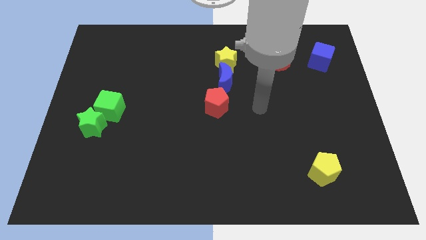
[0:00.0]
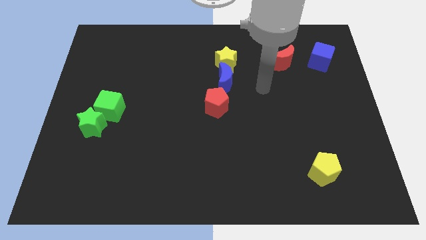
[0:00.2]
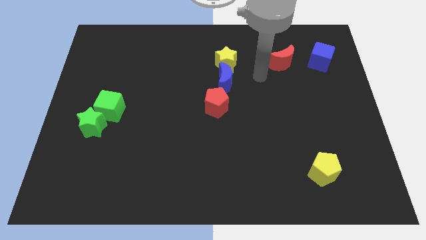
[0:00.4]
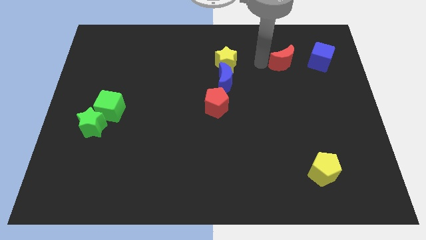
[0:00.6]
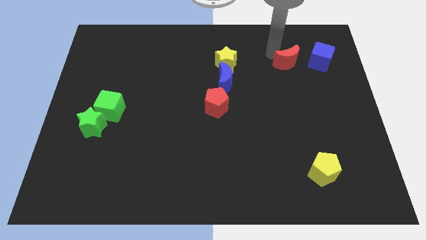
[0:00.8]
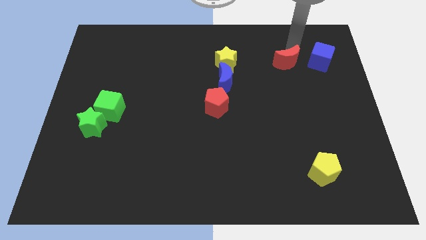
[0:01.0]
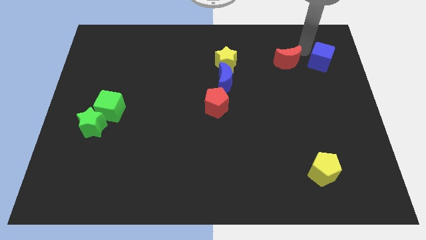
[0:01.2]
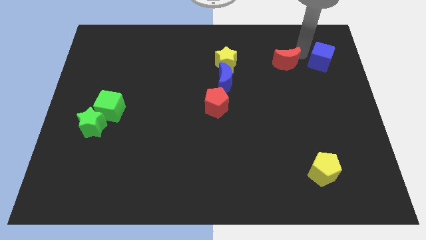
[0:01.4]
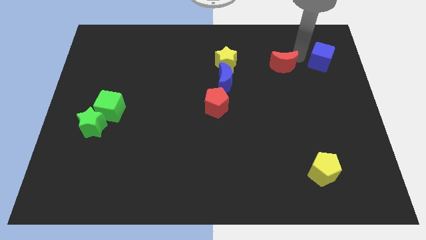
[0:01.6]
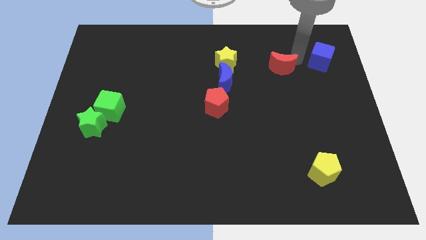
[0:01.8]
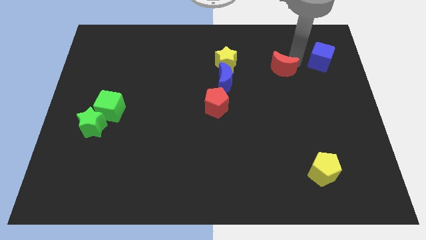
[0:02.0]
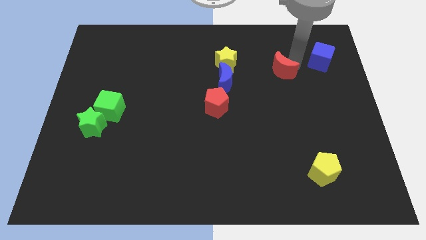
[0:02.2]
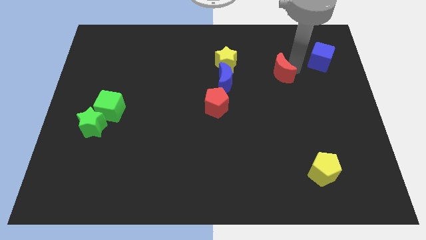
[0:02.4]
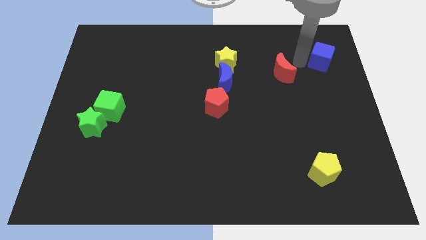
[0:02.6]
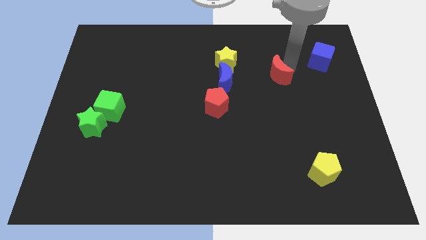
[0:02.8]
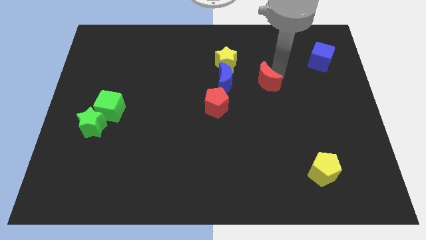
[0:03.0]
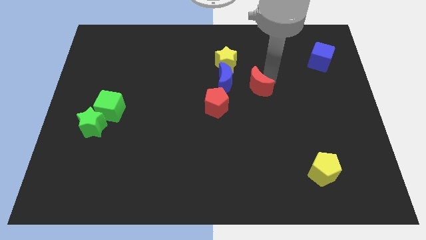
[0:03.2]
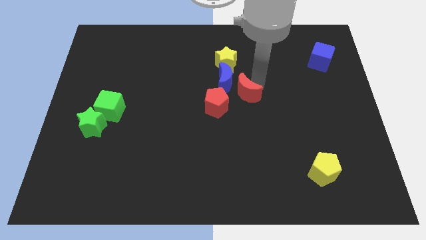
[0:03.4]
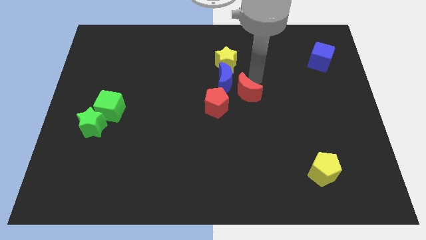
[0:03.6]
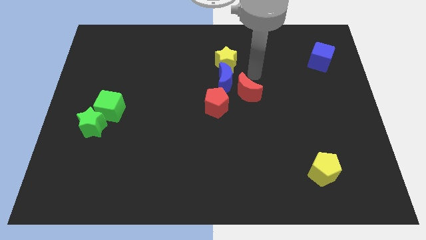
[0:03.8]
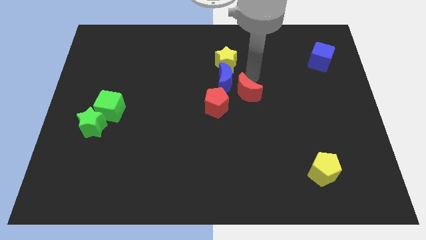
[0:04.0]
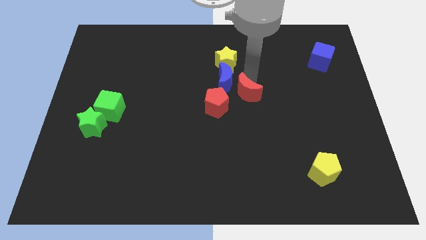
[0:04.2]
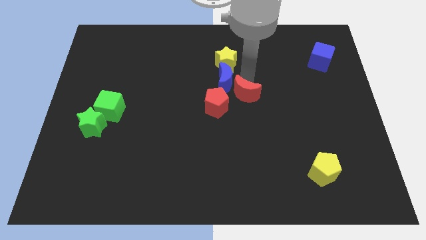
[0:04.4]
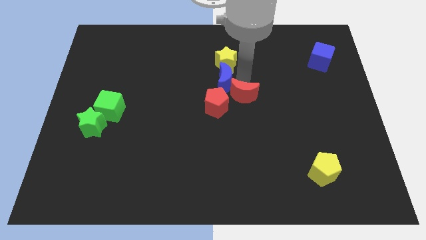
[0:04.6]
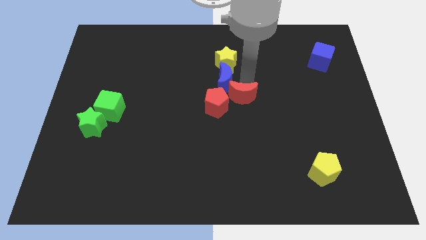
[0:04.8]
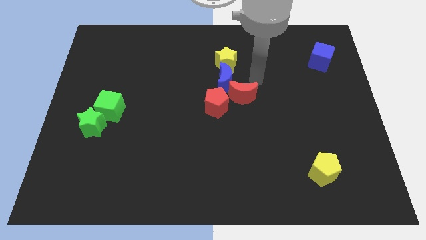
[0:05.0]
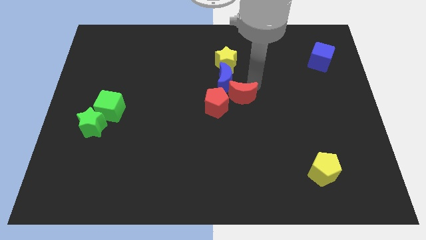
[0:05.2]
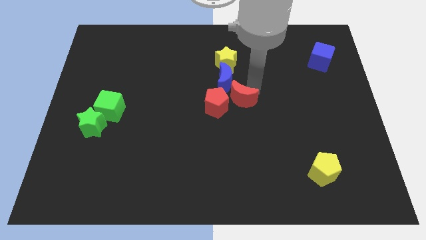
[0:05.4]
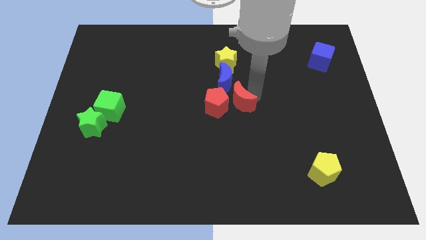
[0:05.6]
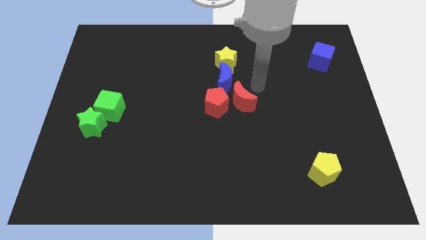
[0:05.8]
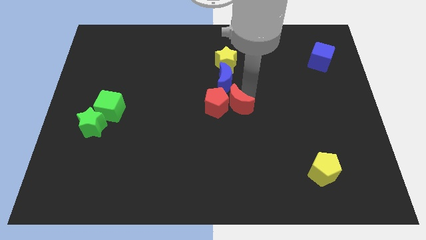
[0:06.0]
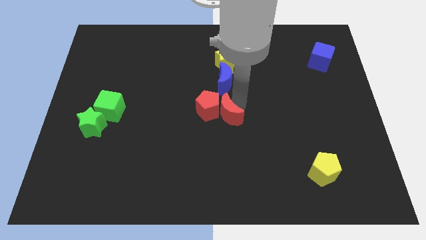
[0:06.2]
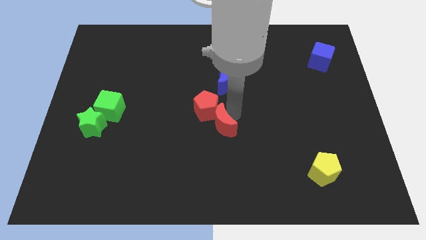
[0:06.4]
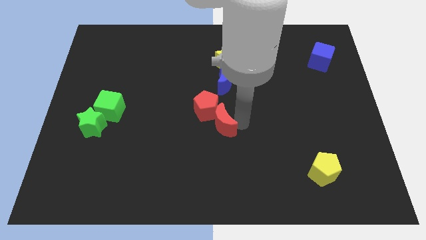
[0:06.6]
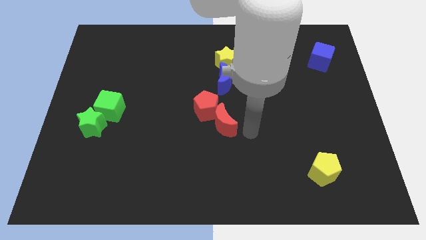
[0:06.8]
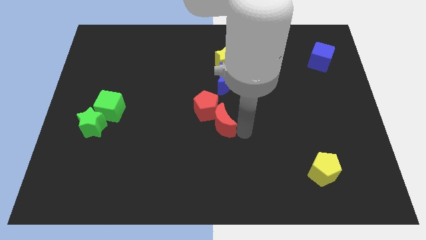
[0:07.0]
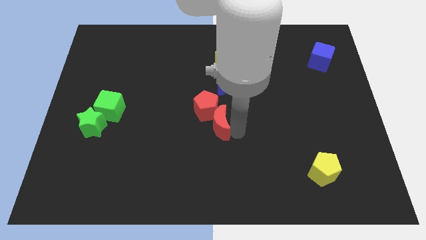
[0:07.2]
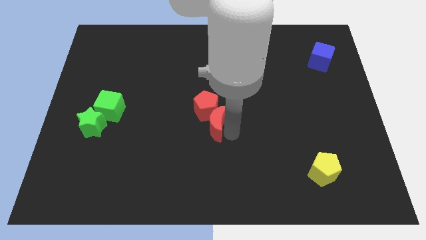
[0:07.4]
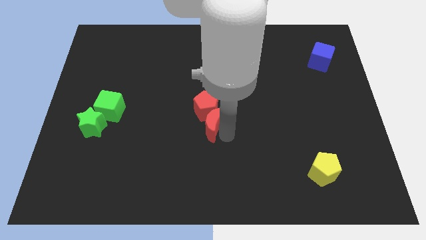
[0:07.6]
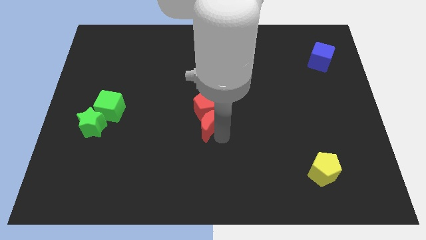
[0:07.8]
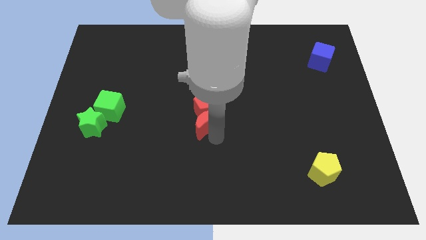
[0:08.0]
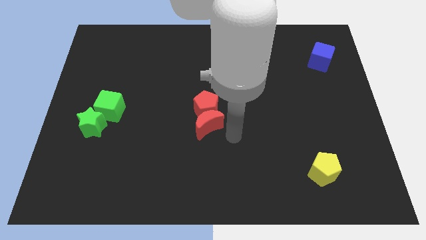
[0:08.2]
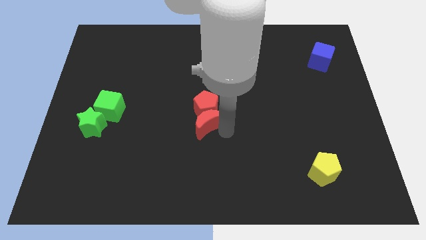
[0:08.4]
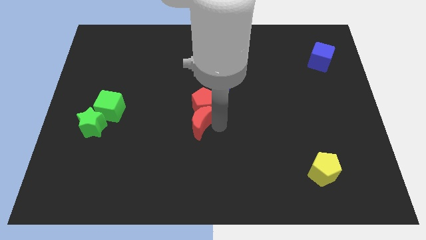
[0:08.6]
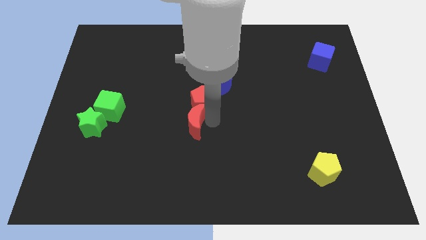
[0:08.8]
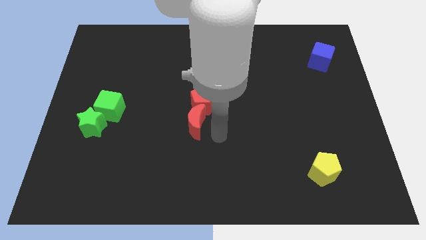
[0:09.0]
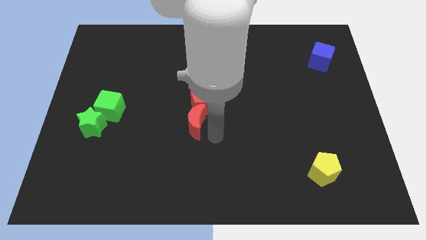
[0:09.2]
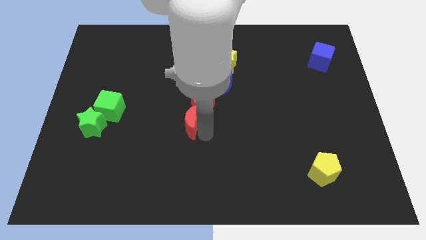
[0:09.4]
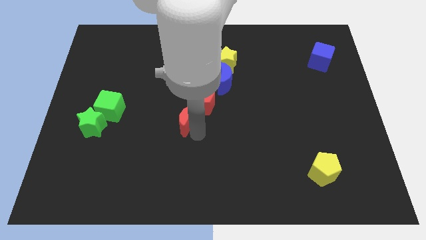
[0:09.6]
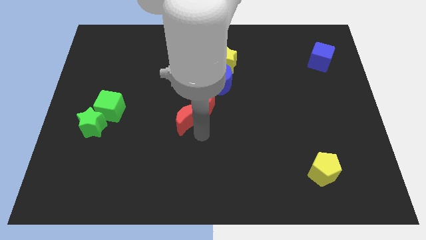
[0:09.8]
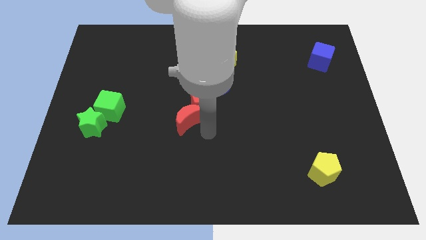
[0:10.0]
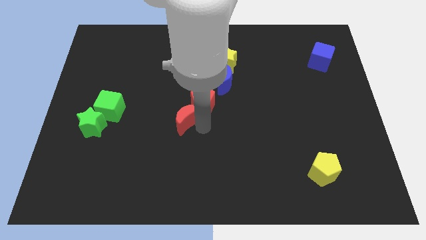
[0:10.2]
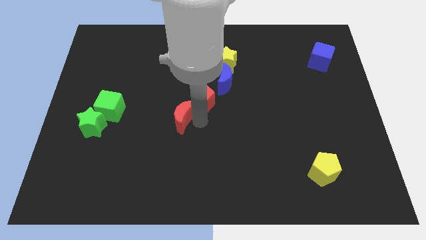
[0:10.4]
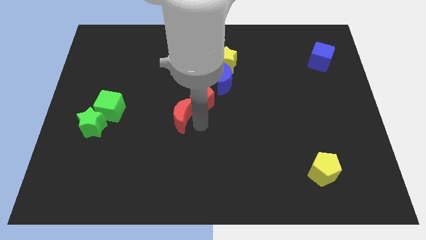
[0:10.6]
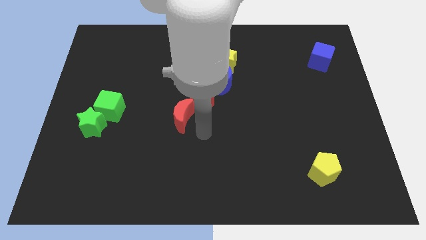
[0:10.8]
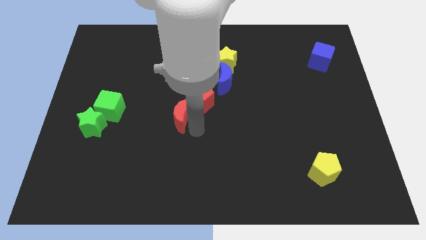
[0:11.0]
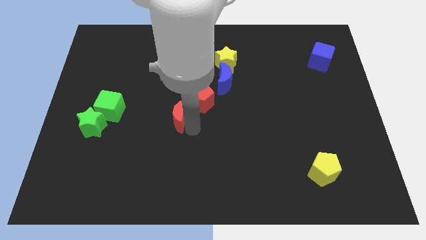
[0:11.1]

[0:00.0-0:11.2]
move the red moon to the left of the red pentagon

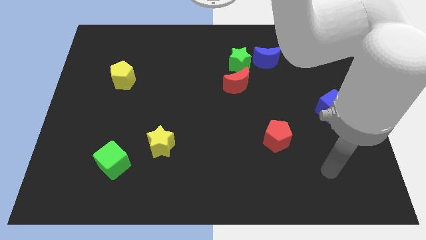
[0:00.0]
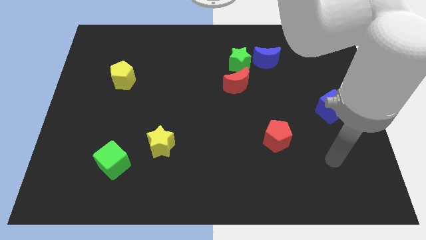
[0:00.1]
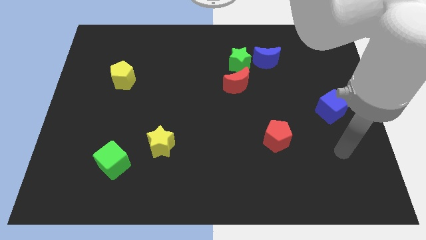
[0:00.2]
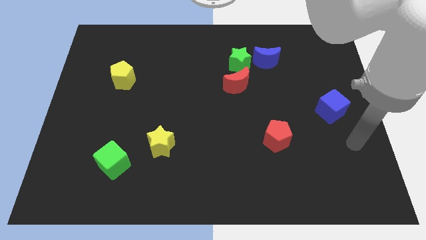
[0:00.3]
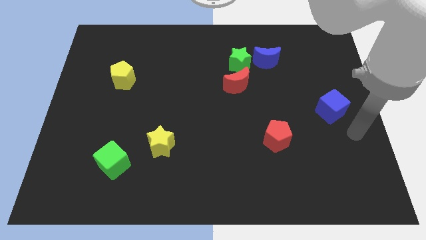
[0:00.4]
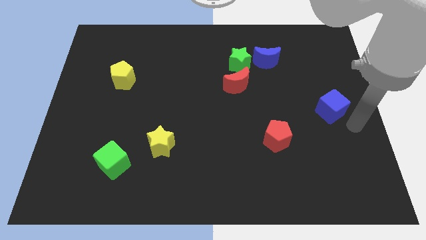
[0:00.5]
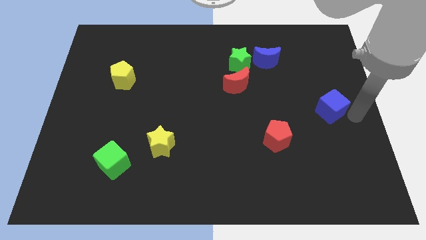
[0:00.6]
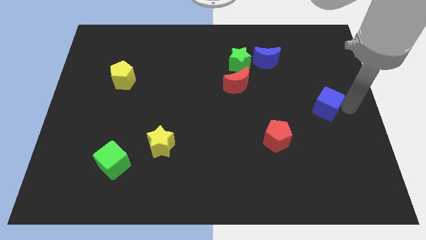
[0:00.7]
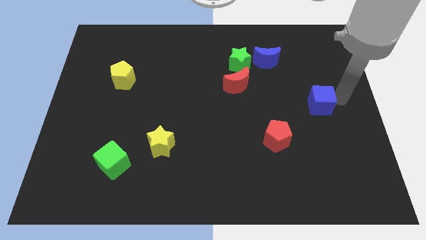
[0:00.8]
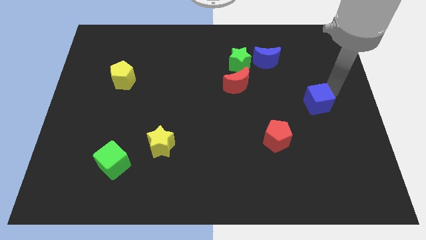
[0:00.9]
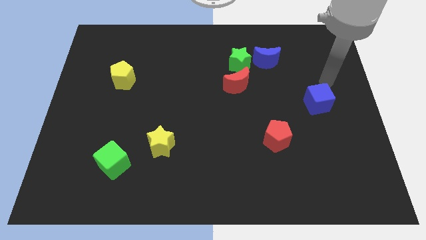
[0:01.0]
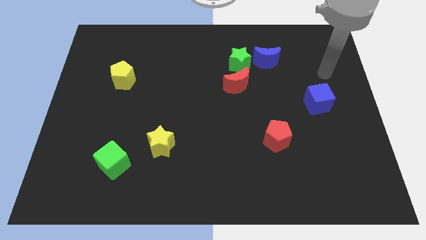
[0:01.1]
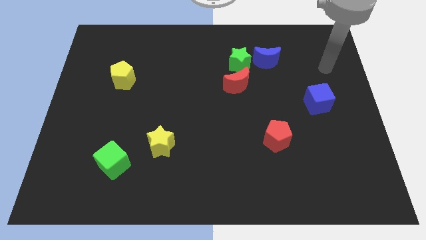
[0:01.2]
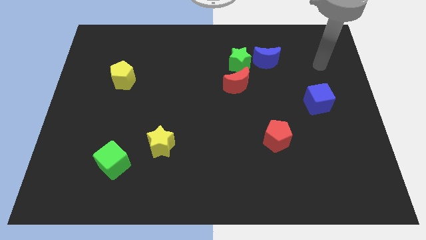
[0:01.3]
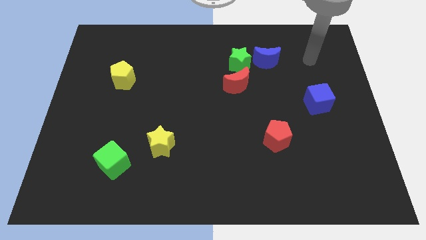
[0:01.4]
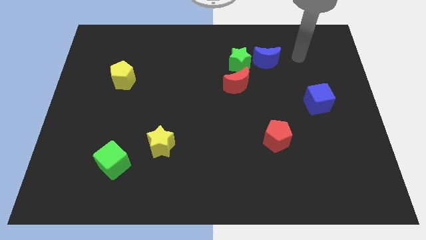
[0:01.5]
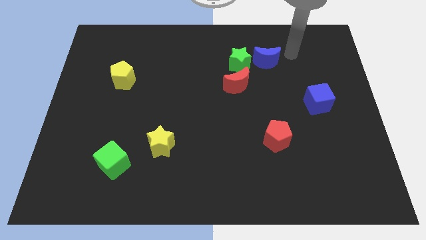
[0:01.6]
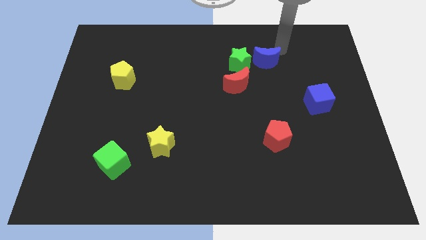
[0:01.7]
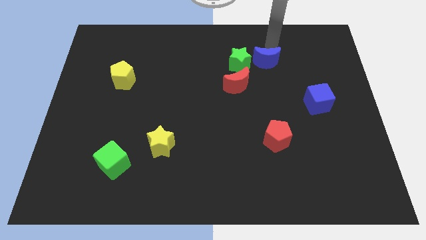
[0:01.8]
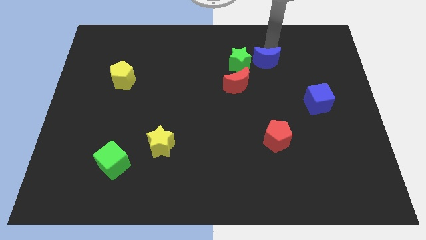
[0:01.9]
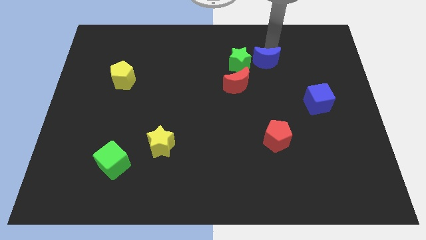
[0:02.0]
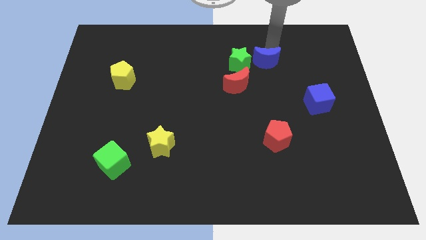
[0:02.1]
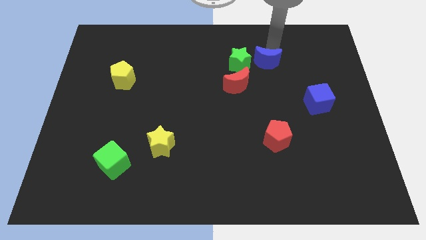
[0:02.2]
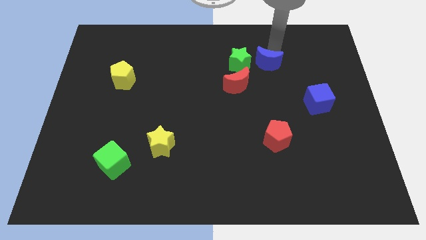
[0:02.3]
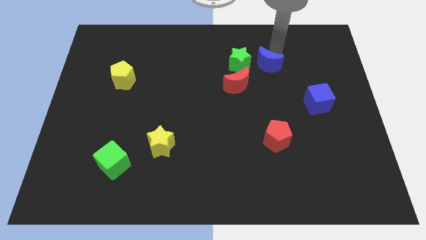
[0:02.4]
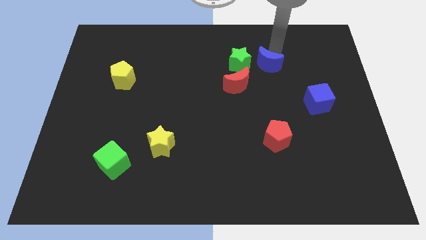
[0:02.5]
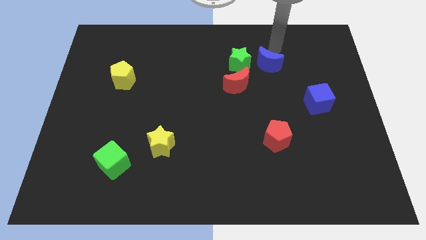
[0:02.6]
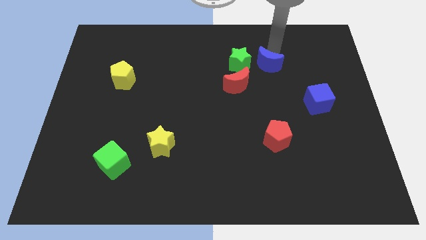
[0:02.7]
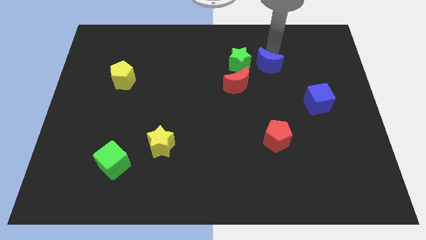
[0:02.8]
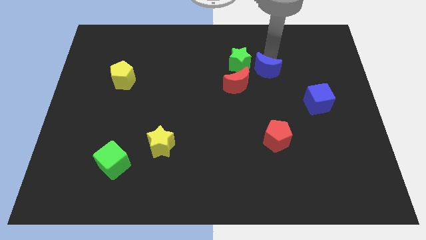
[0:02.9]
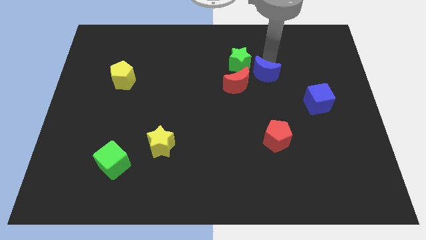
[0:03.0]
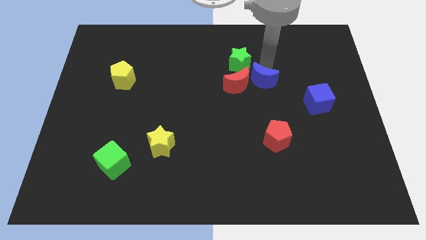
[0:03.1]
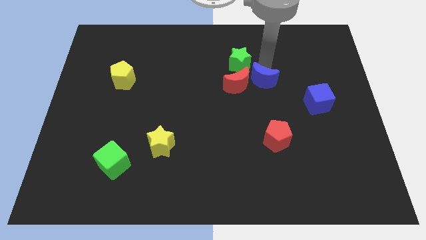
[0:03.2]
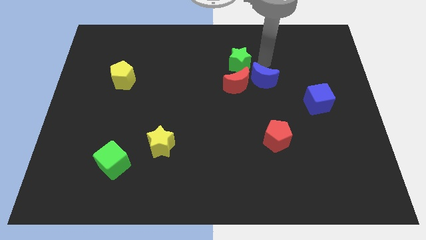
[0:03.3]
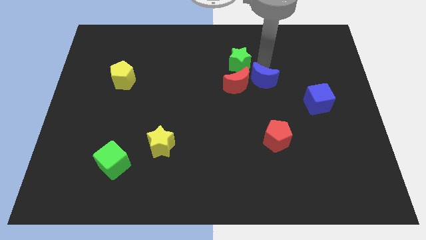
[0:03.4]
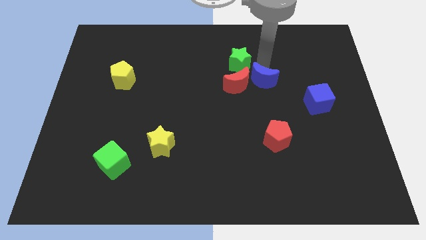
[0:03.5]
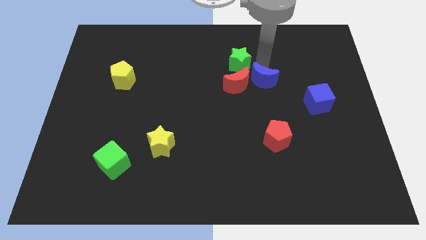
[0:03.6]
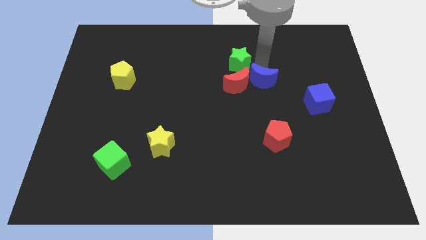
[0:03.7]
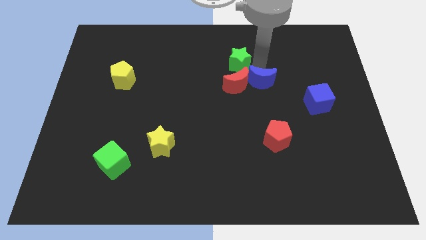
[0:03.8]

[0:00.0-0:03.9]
push the blue moon diagonally down and to the right of the red moon
